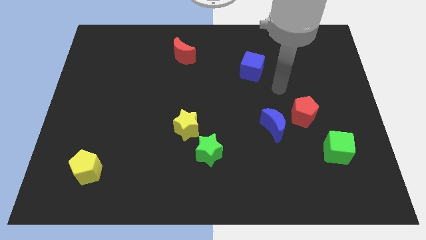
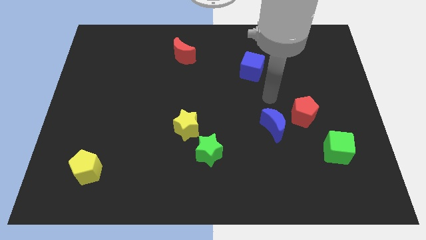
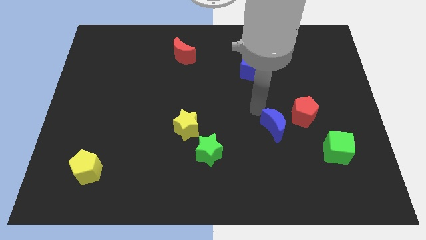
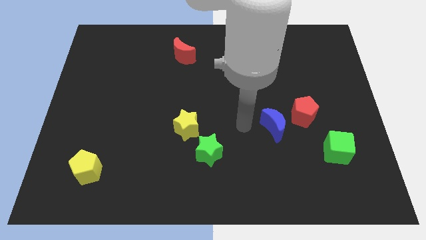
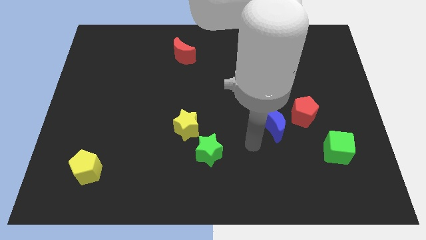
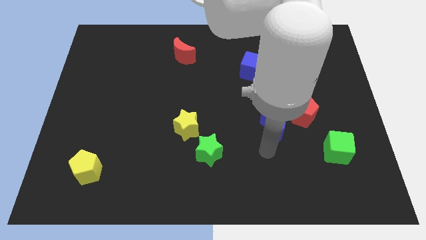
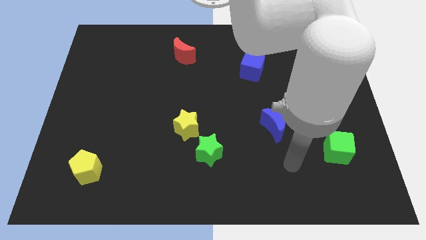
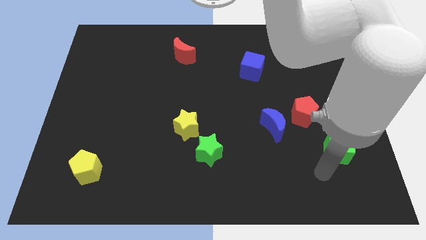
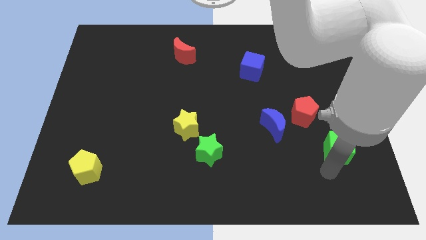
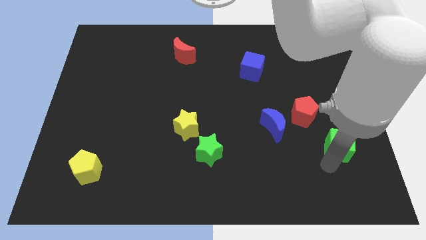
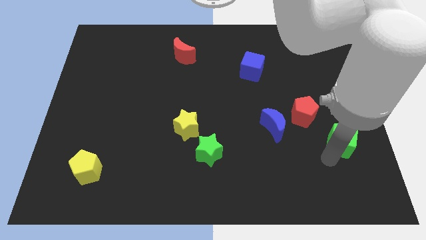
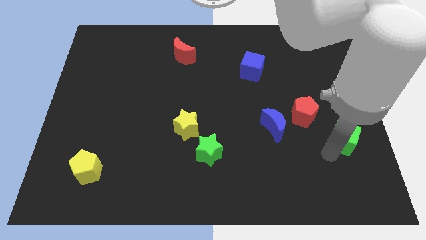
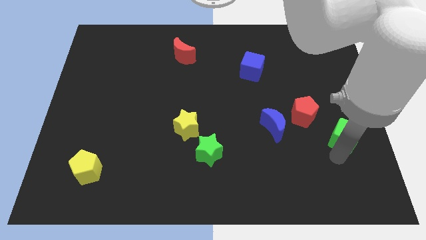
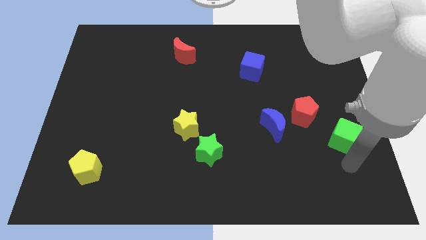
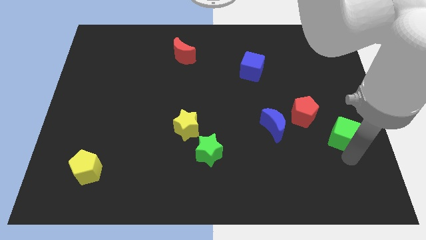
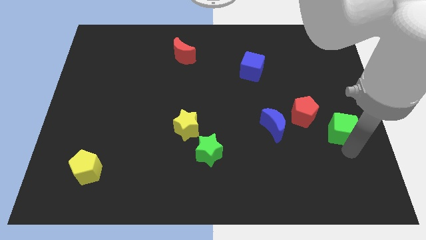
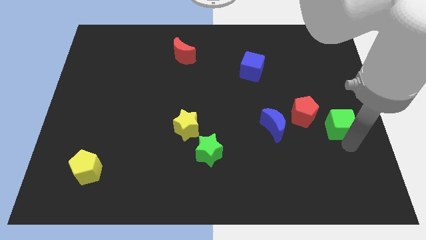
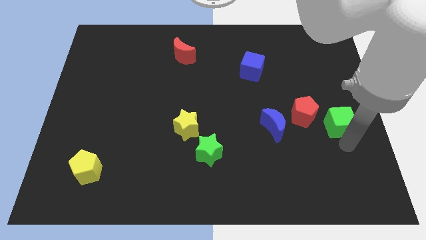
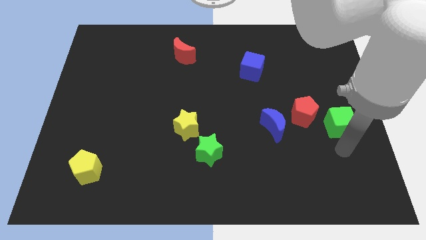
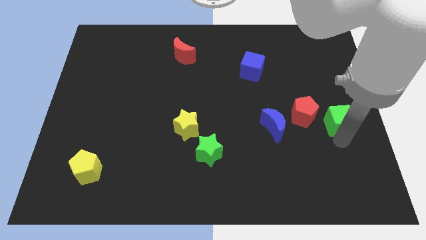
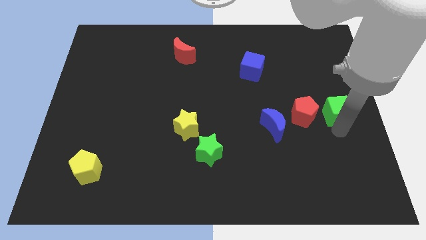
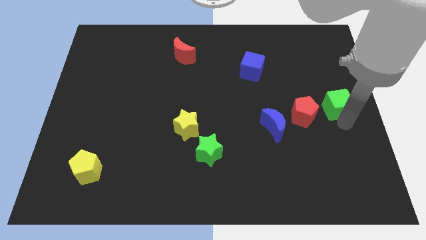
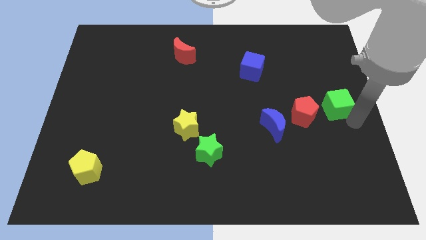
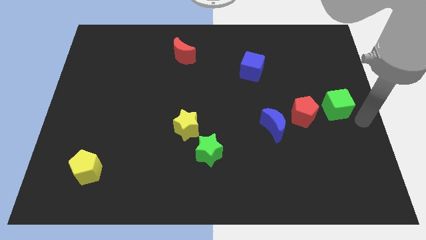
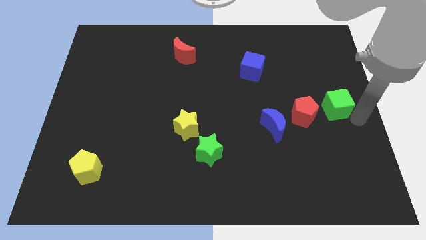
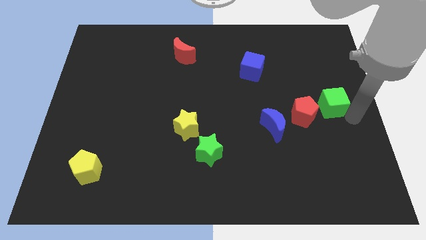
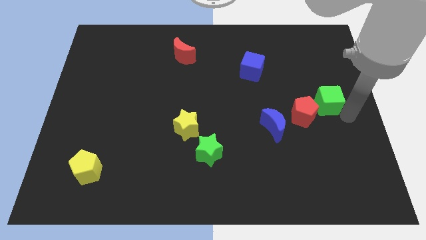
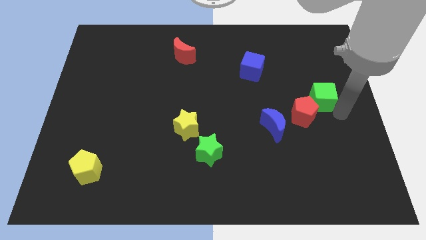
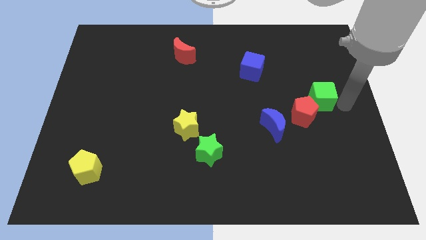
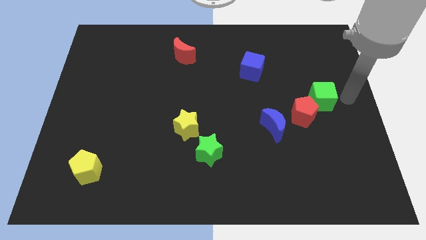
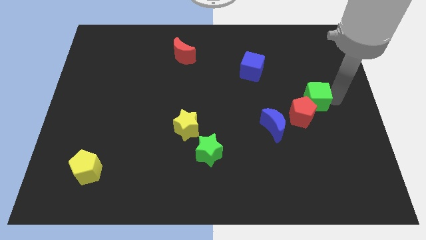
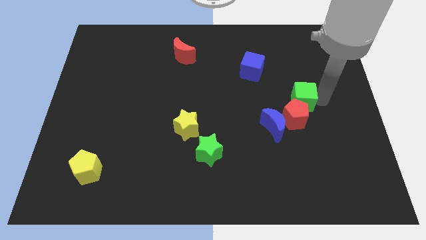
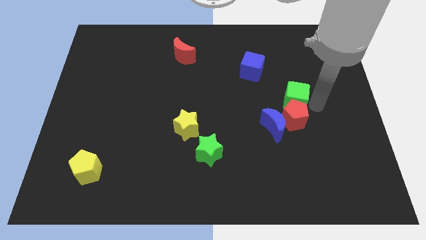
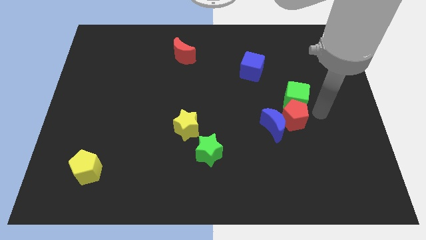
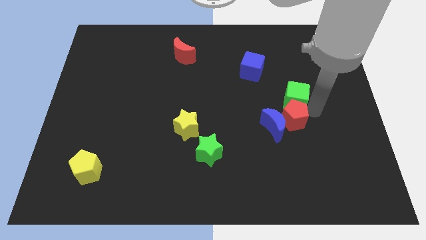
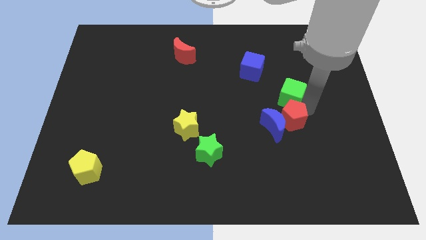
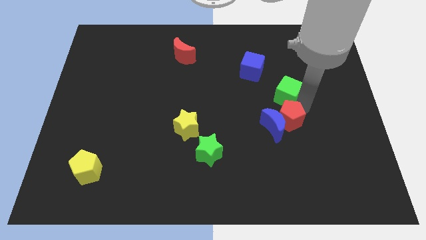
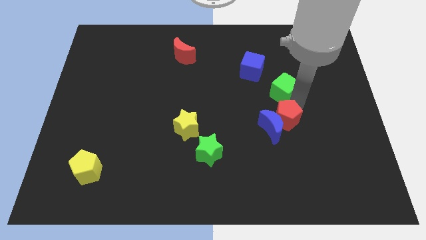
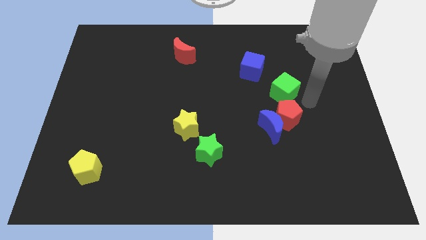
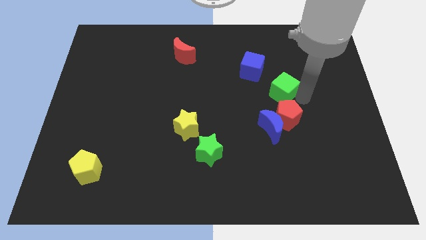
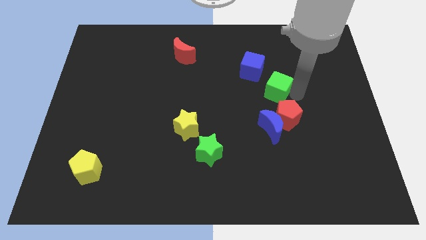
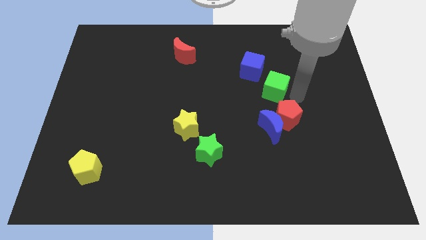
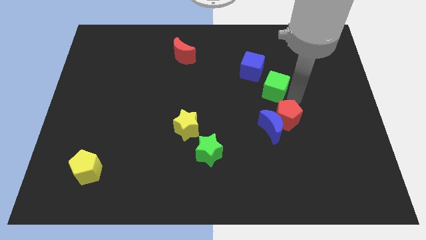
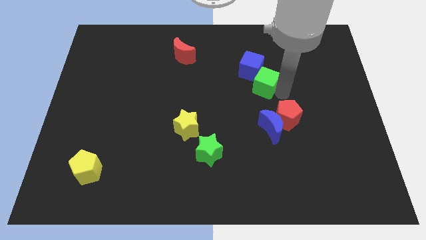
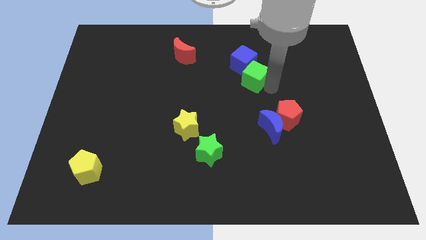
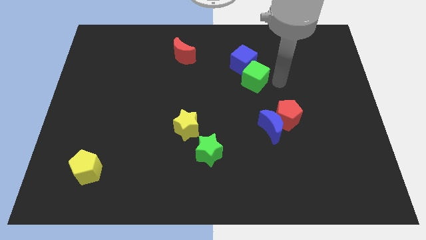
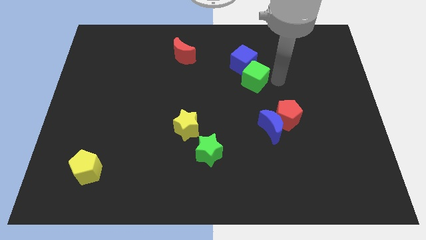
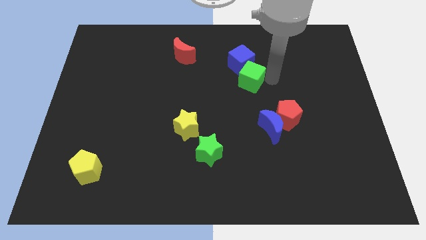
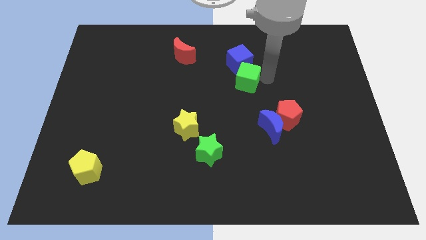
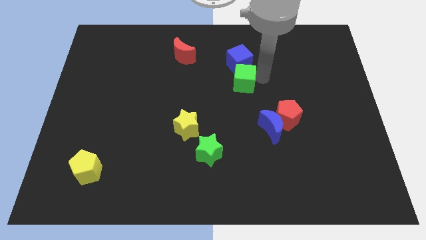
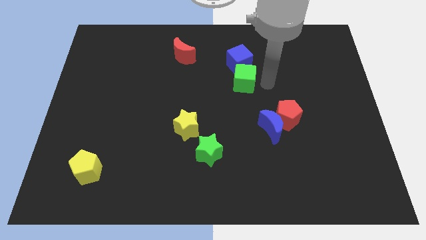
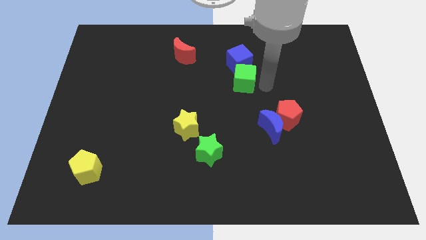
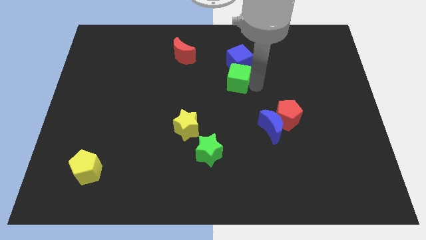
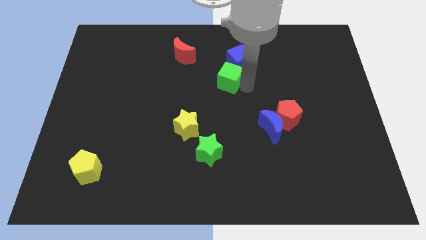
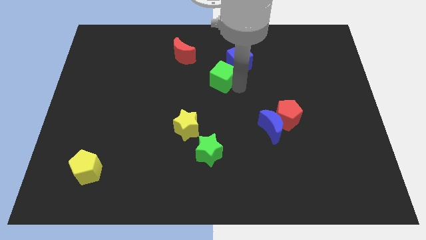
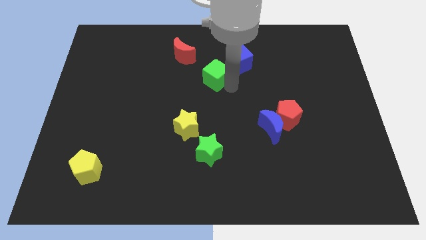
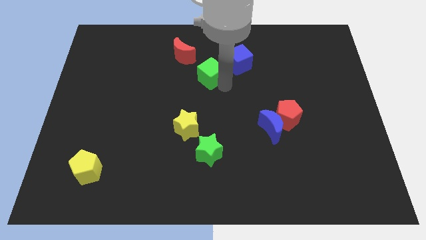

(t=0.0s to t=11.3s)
push the green cube to the left side of the blue cube

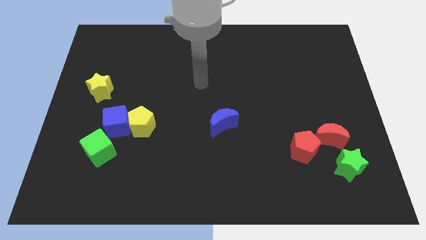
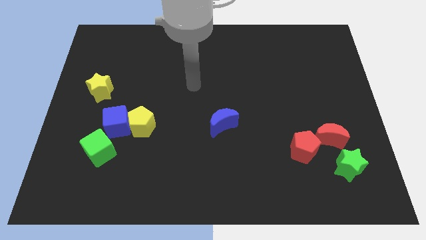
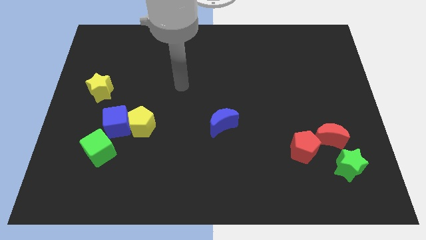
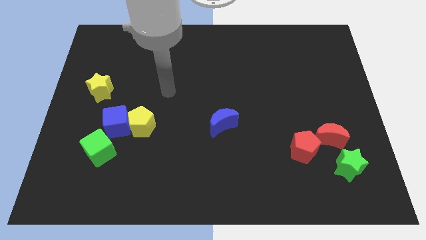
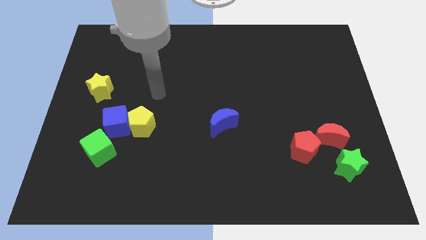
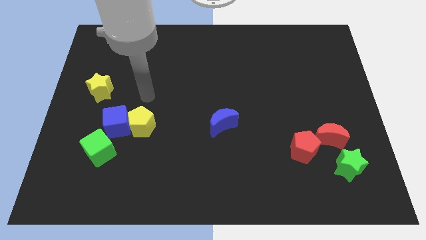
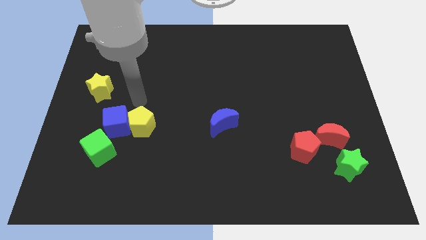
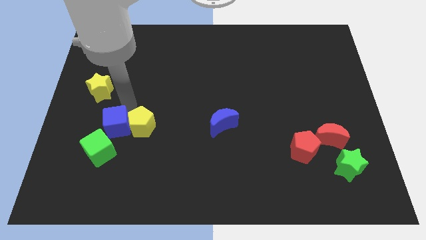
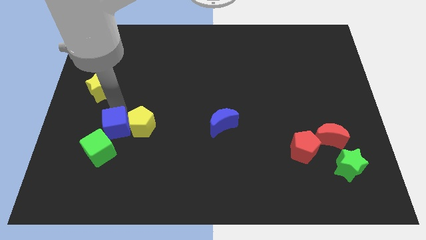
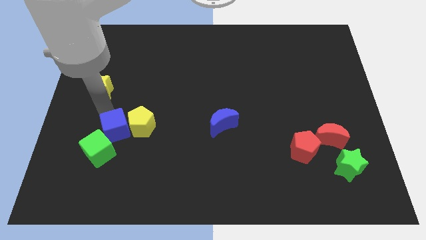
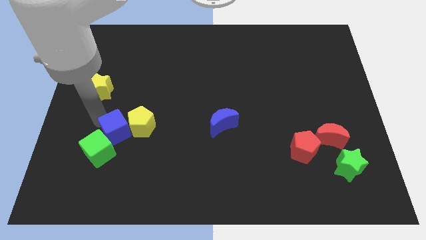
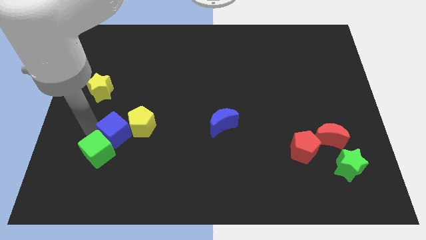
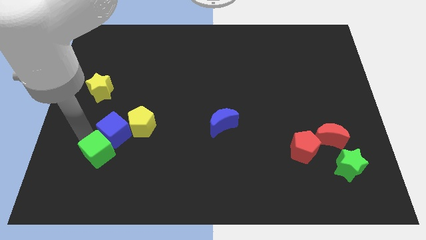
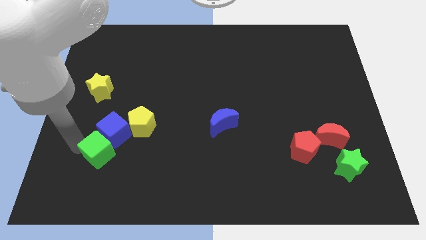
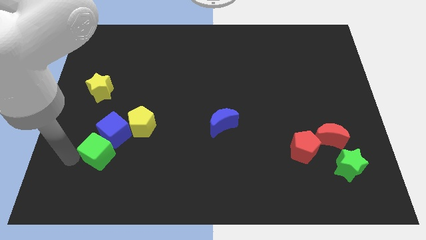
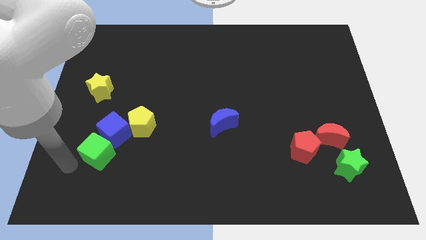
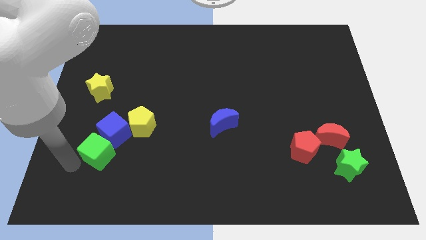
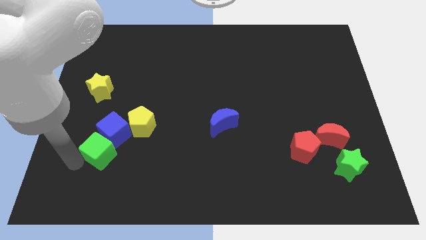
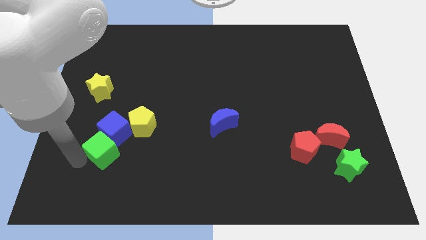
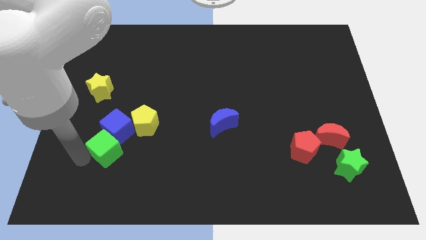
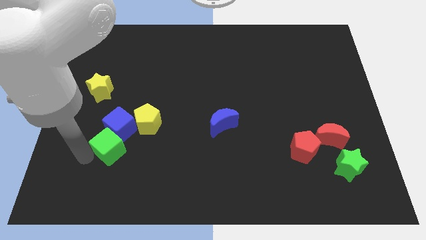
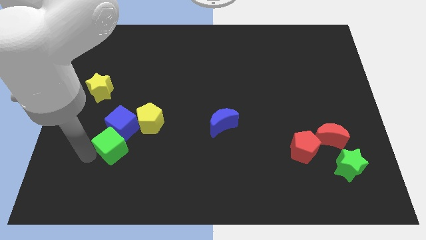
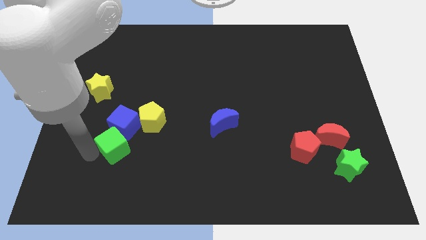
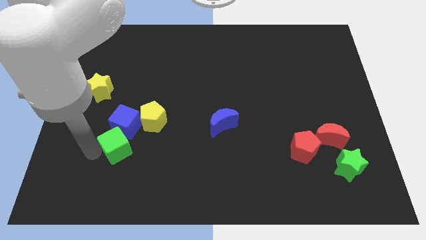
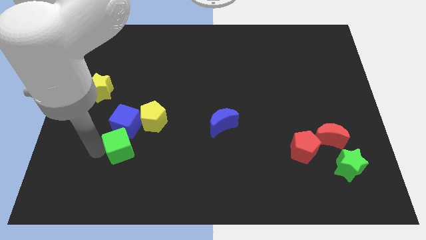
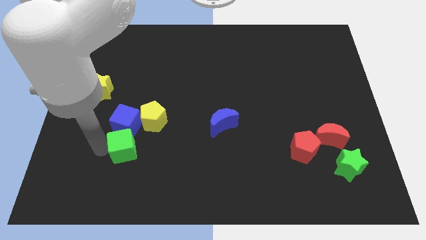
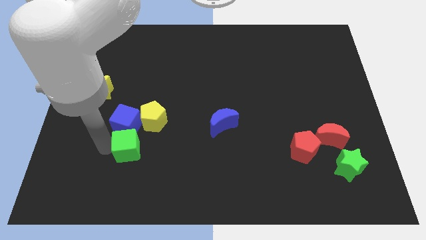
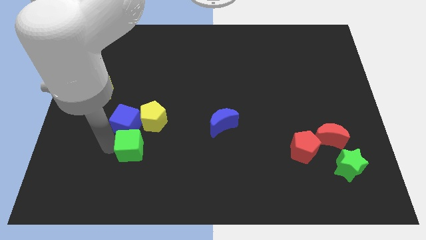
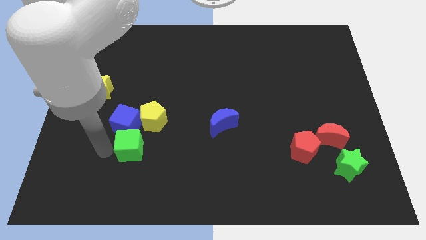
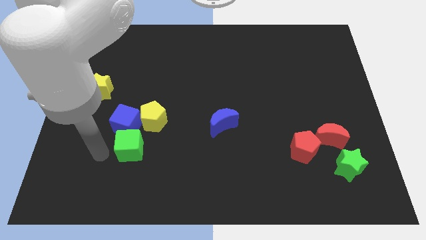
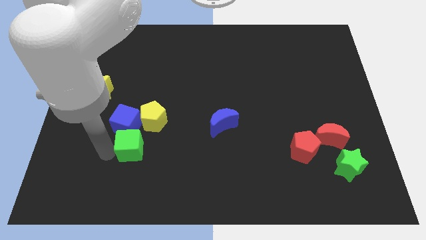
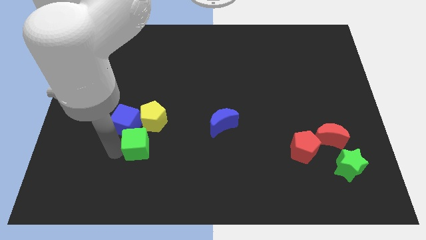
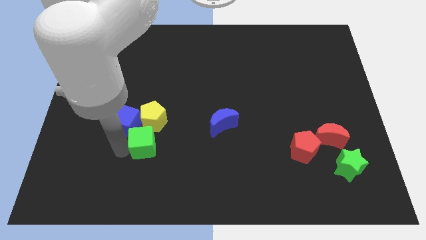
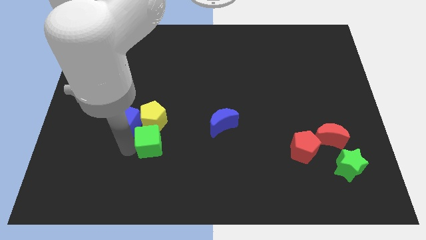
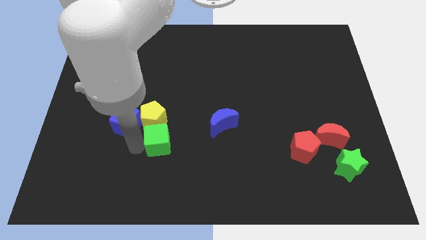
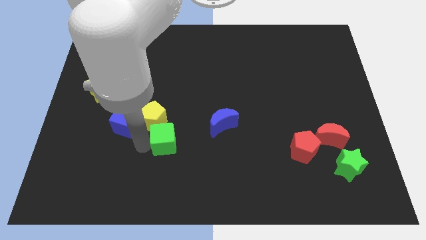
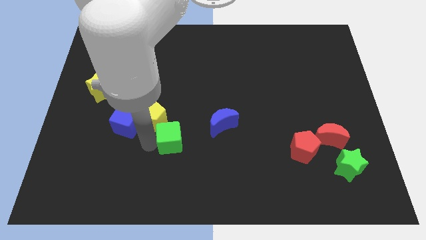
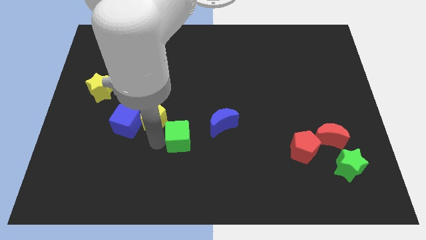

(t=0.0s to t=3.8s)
push the green cube to the bottom left of the blue moon
